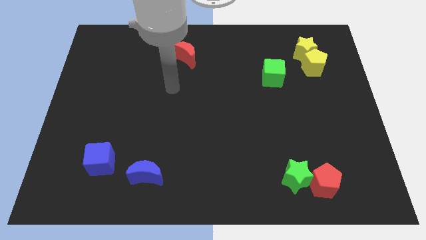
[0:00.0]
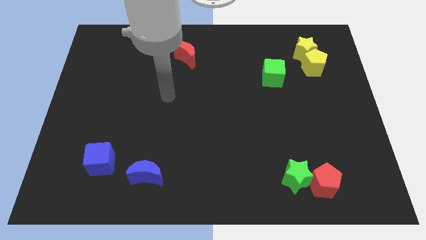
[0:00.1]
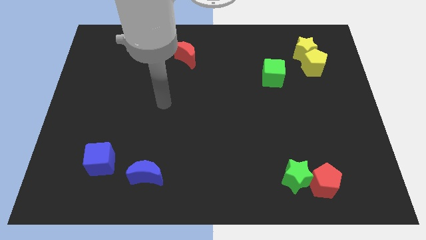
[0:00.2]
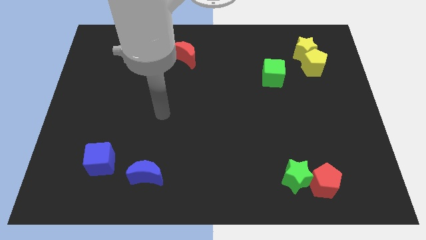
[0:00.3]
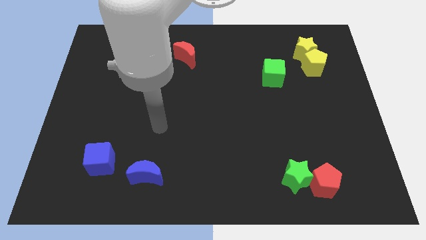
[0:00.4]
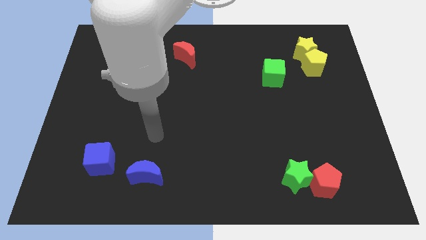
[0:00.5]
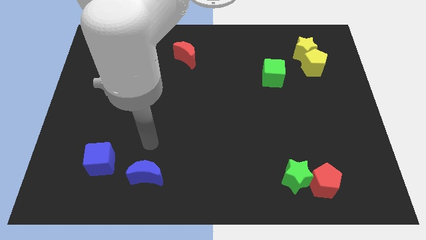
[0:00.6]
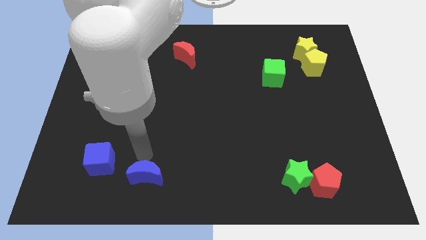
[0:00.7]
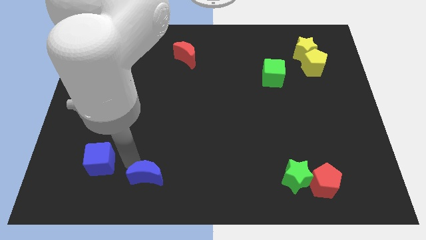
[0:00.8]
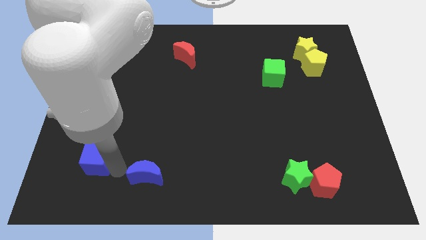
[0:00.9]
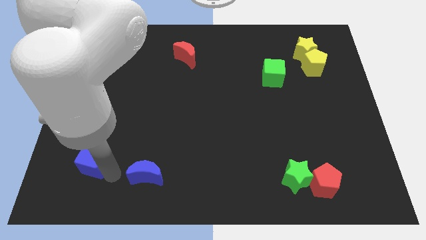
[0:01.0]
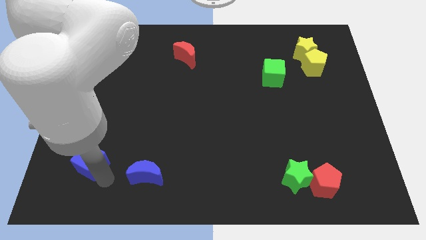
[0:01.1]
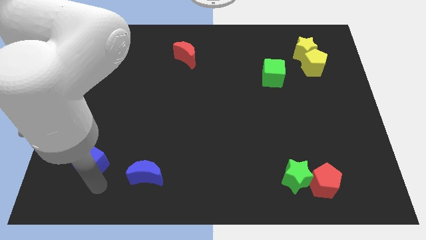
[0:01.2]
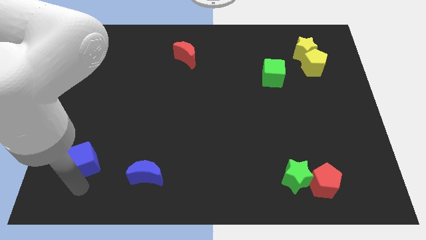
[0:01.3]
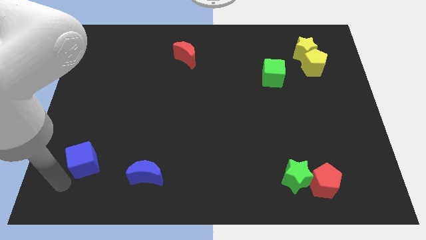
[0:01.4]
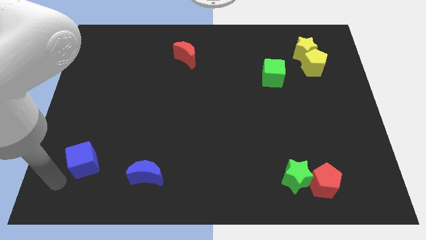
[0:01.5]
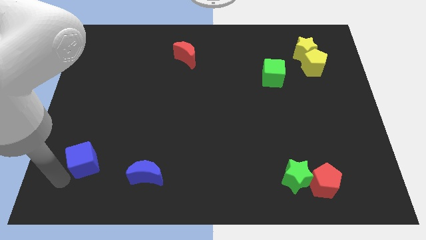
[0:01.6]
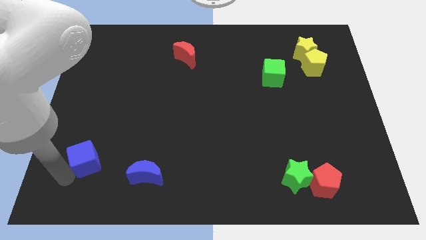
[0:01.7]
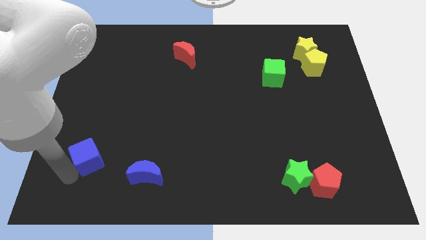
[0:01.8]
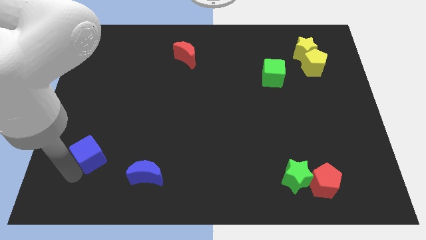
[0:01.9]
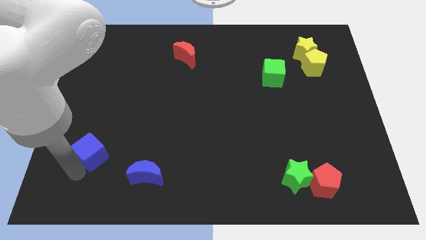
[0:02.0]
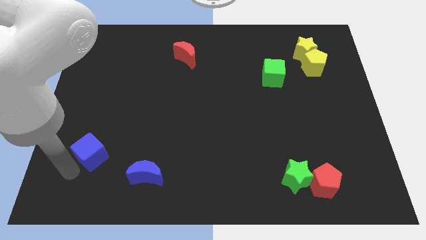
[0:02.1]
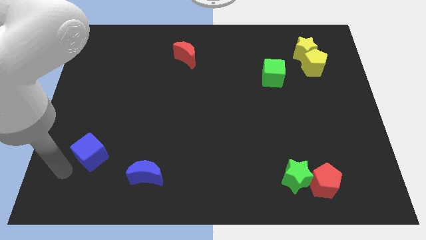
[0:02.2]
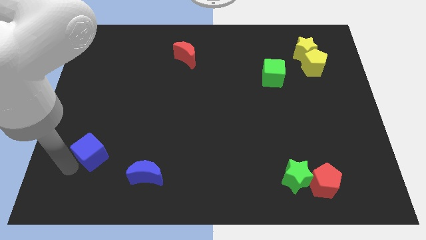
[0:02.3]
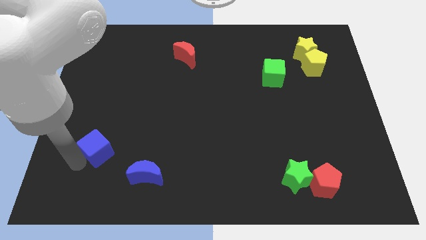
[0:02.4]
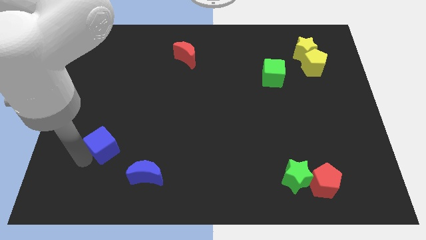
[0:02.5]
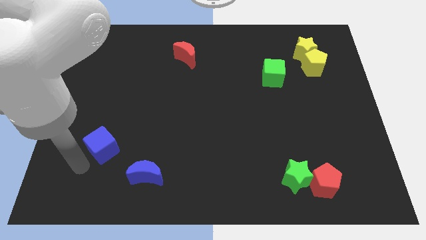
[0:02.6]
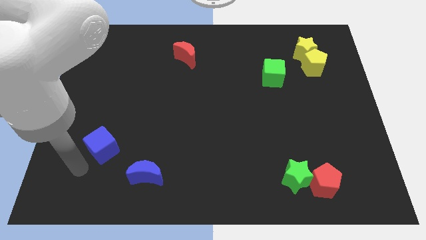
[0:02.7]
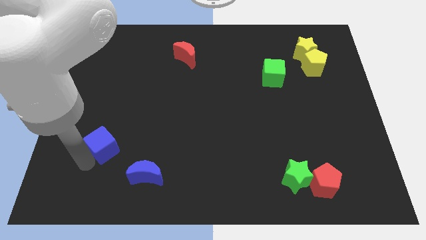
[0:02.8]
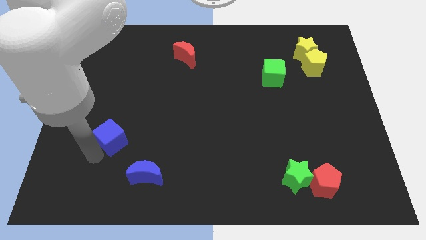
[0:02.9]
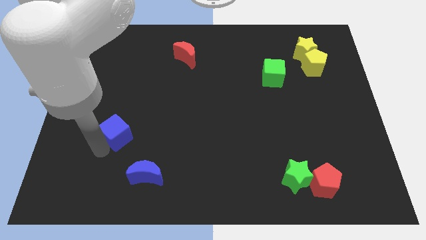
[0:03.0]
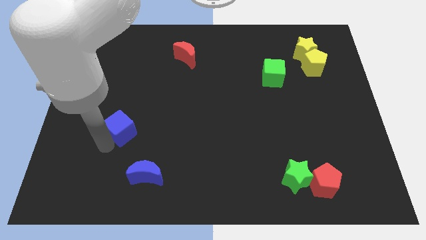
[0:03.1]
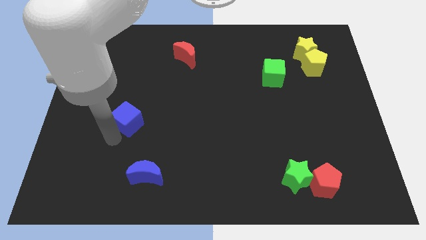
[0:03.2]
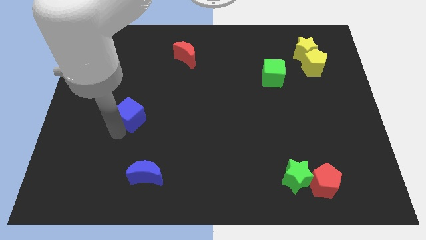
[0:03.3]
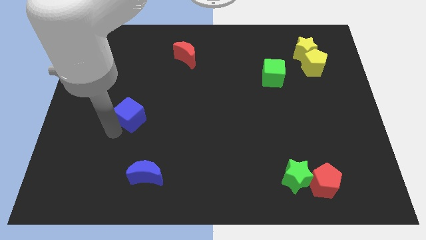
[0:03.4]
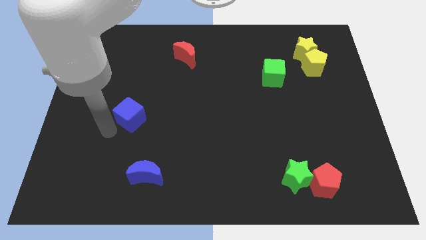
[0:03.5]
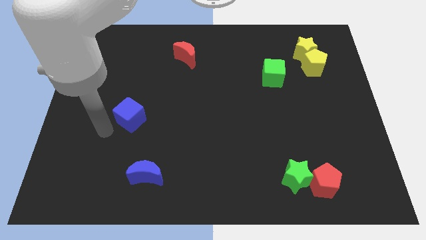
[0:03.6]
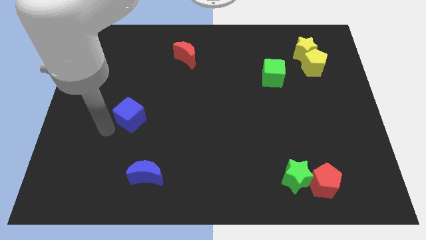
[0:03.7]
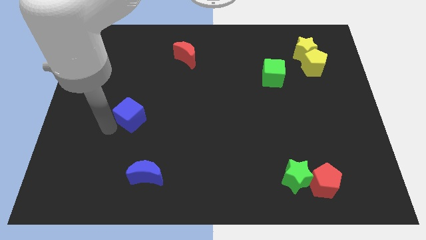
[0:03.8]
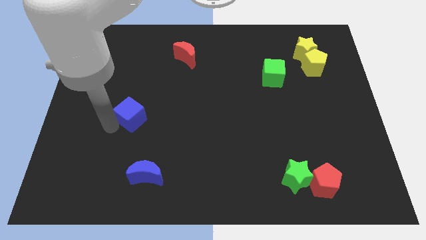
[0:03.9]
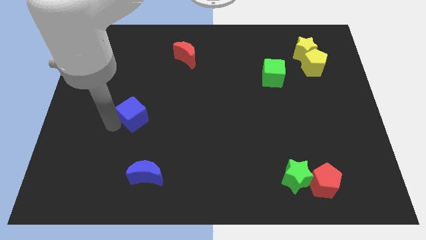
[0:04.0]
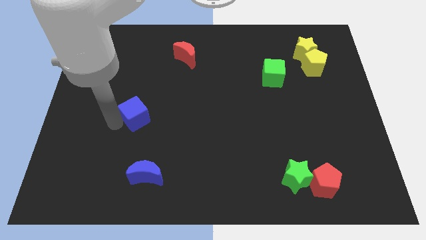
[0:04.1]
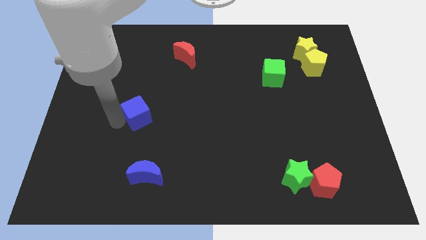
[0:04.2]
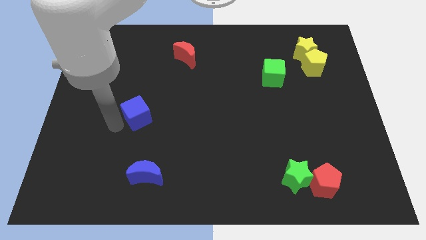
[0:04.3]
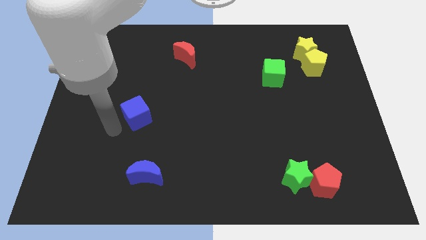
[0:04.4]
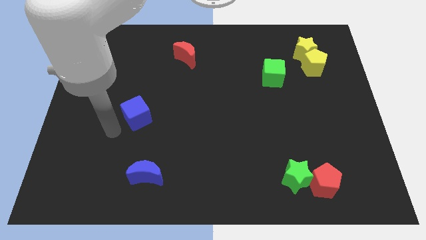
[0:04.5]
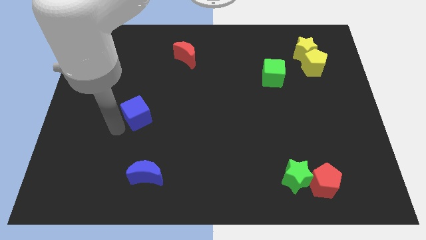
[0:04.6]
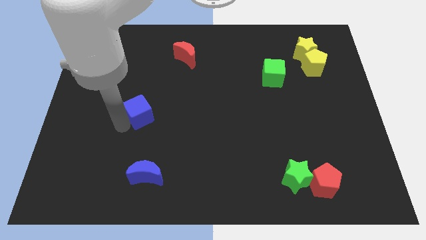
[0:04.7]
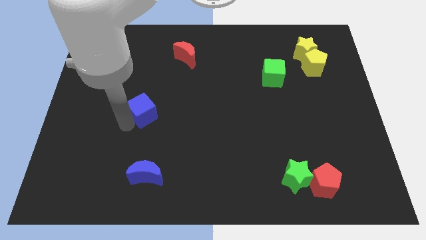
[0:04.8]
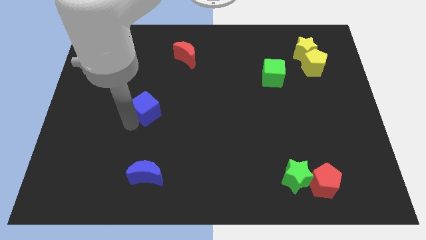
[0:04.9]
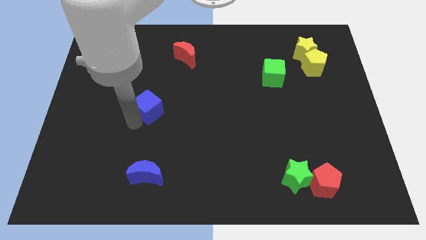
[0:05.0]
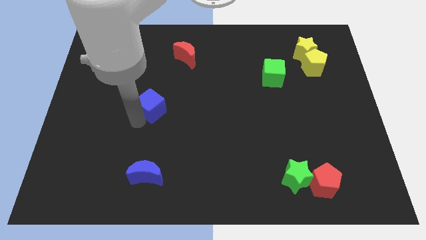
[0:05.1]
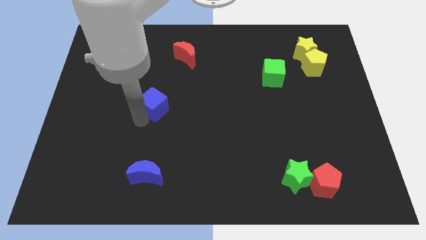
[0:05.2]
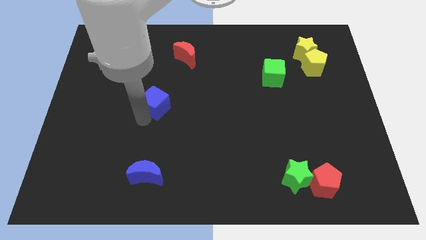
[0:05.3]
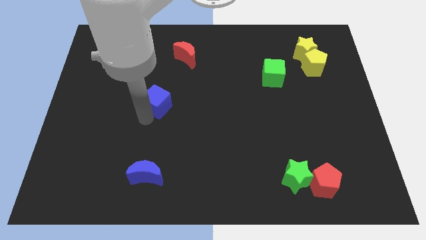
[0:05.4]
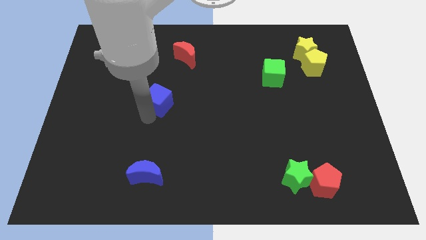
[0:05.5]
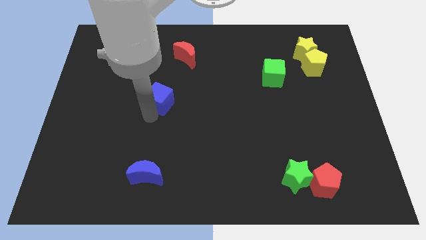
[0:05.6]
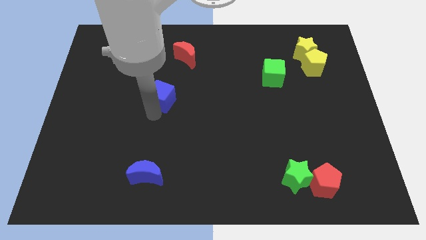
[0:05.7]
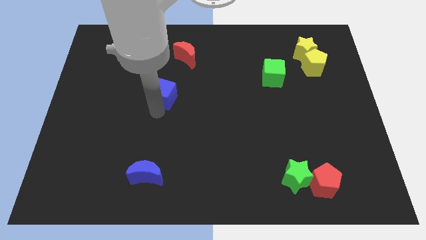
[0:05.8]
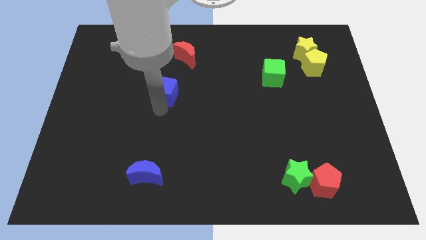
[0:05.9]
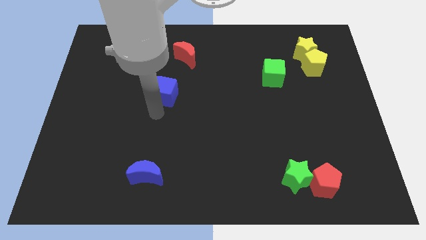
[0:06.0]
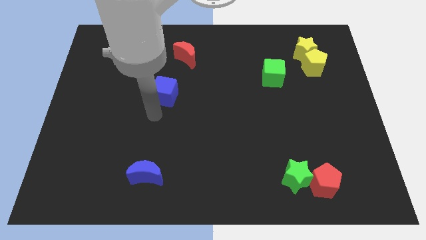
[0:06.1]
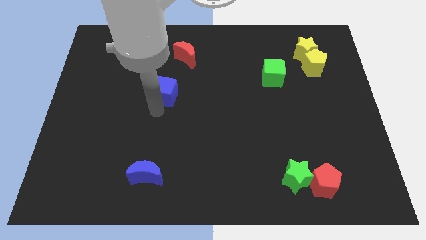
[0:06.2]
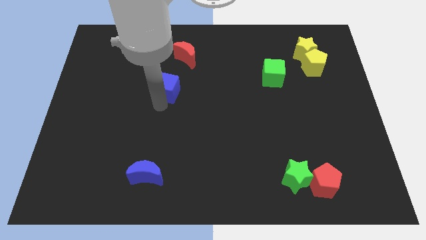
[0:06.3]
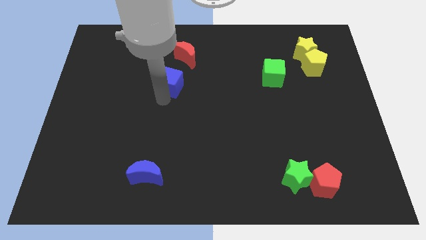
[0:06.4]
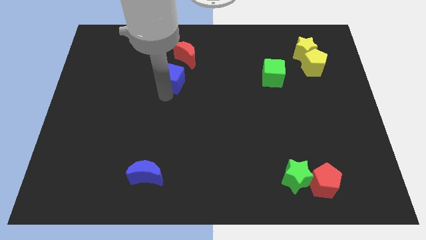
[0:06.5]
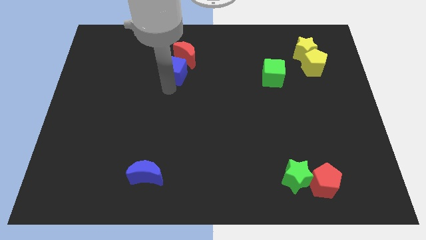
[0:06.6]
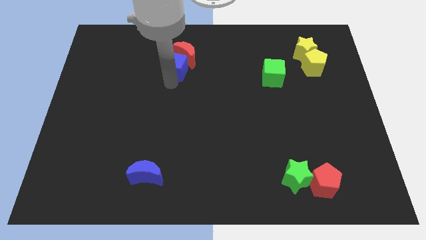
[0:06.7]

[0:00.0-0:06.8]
slide the blue cube close to the red moon

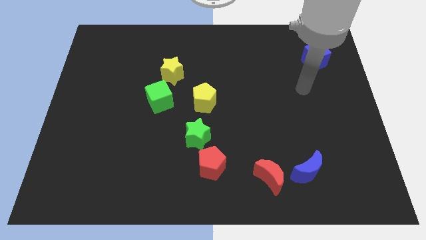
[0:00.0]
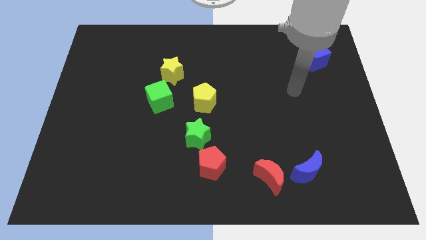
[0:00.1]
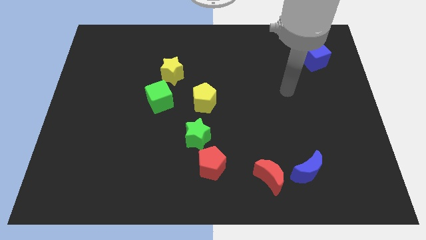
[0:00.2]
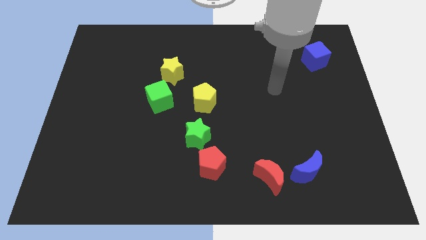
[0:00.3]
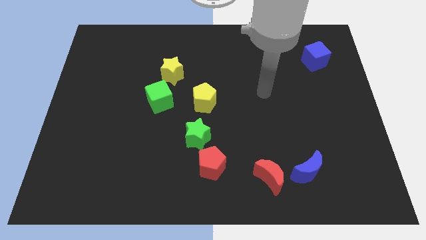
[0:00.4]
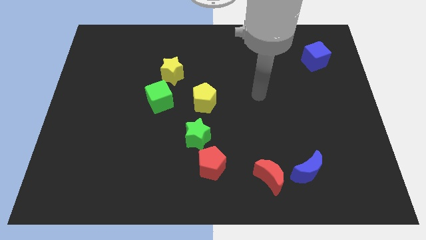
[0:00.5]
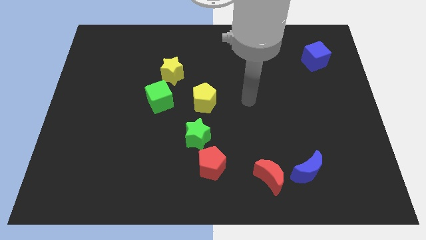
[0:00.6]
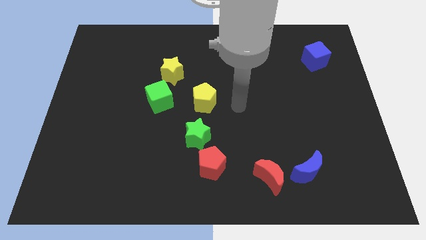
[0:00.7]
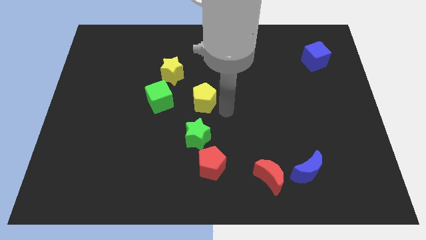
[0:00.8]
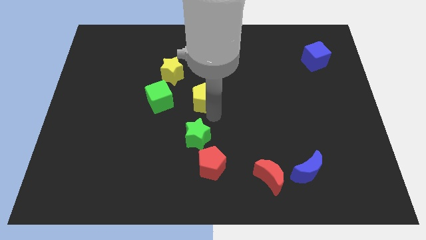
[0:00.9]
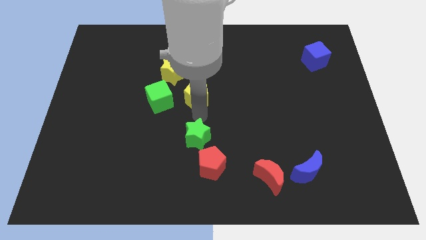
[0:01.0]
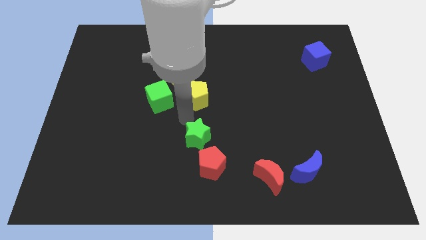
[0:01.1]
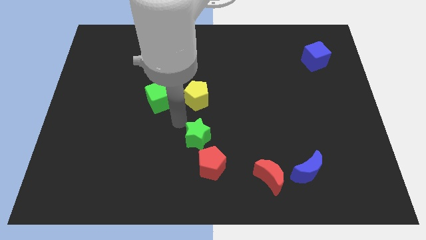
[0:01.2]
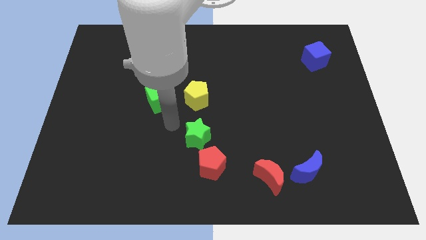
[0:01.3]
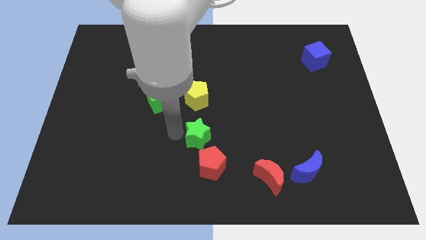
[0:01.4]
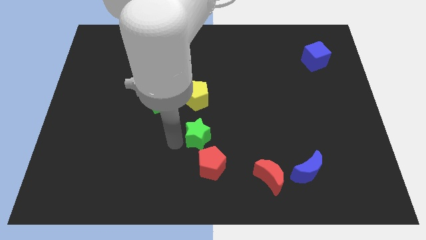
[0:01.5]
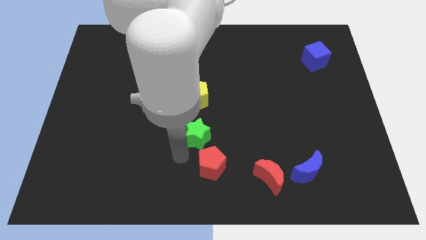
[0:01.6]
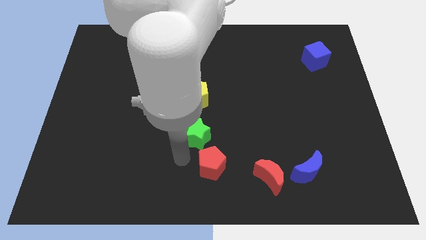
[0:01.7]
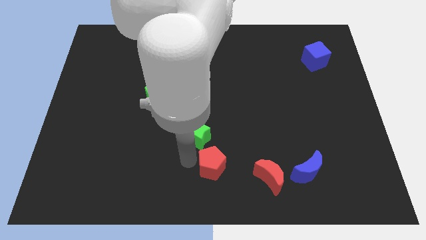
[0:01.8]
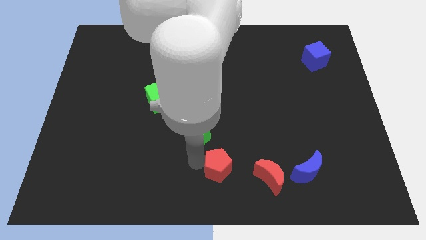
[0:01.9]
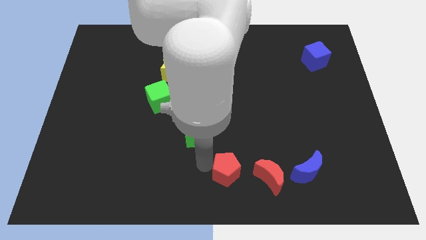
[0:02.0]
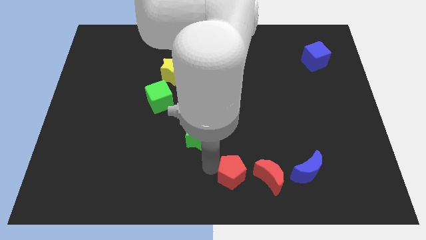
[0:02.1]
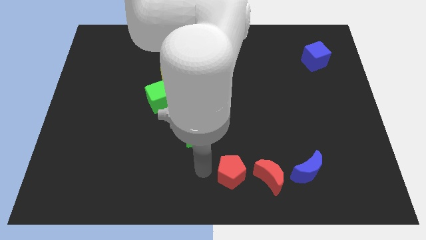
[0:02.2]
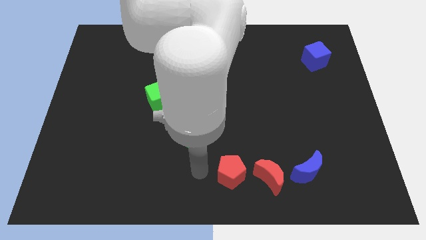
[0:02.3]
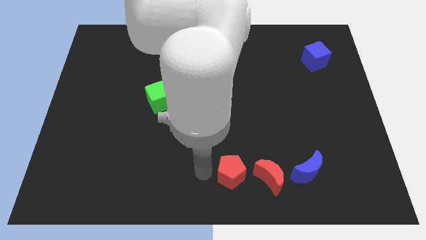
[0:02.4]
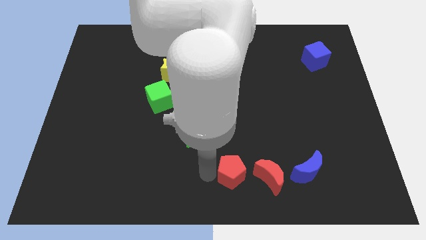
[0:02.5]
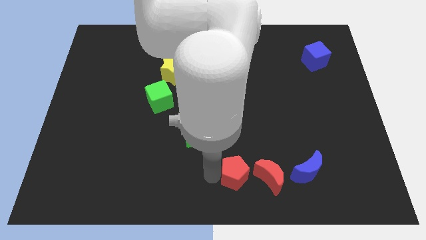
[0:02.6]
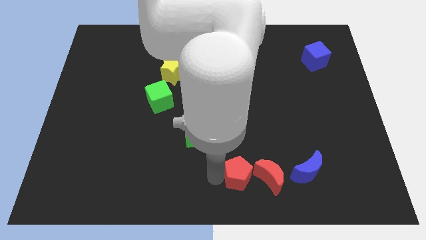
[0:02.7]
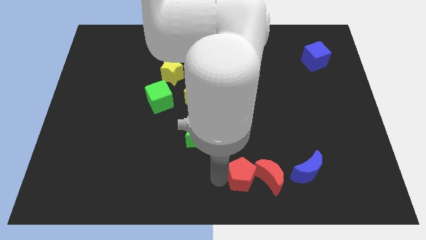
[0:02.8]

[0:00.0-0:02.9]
slide the red pentagon to the red moon
